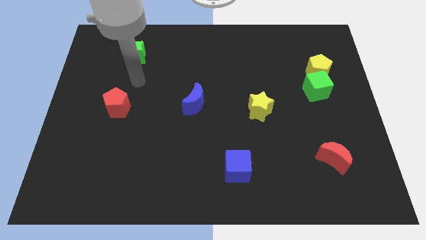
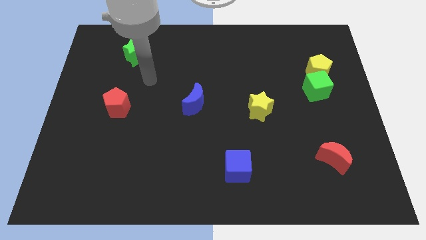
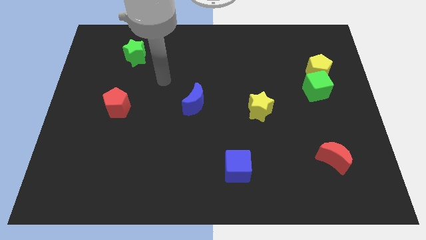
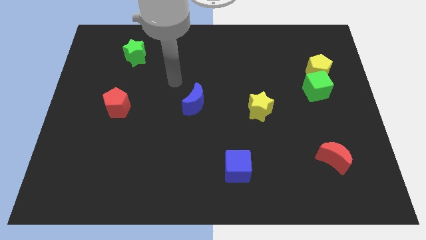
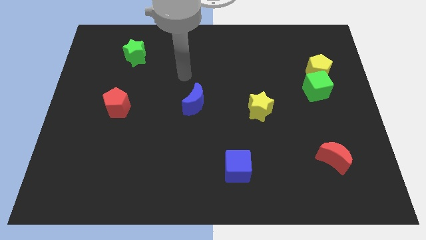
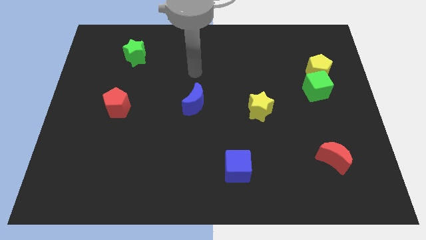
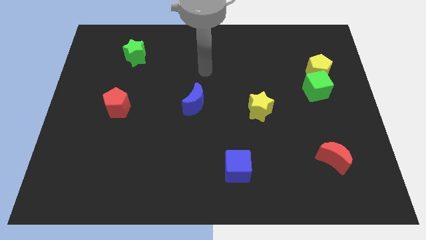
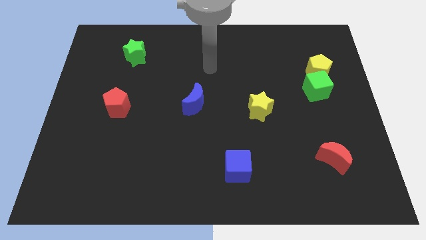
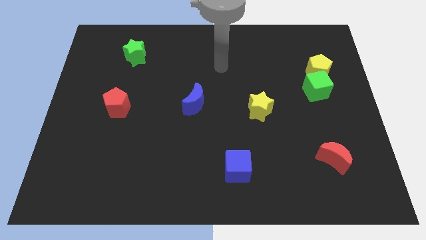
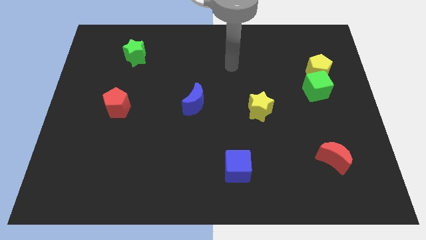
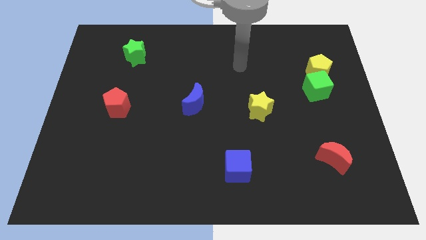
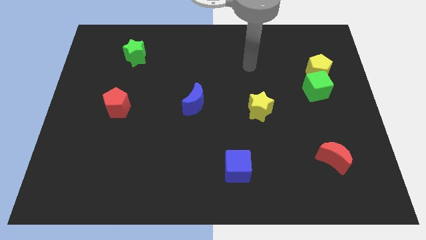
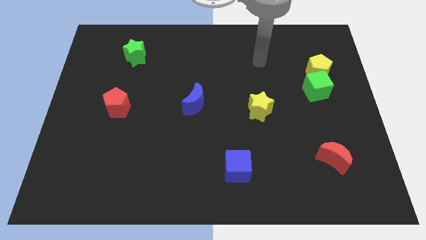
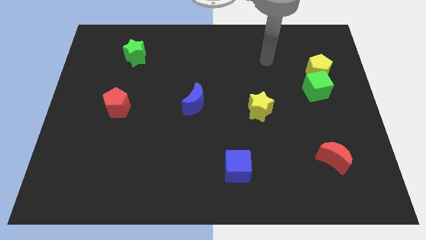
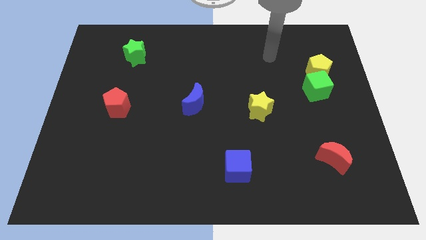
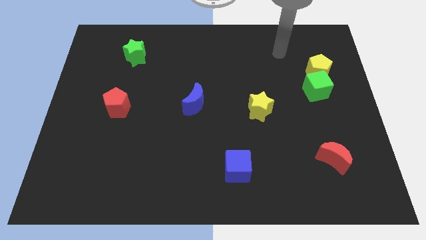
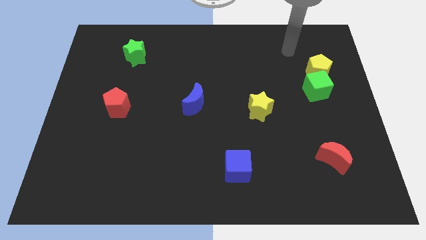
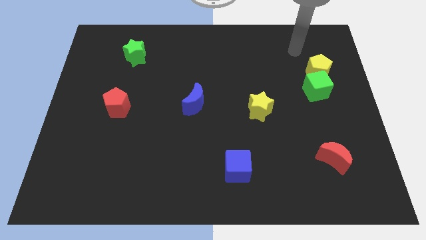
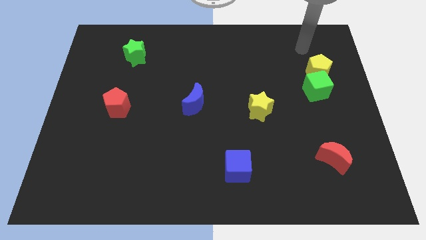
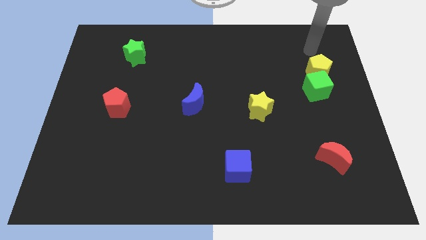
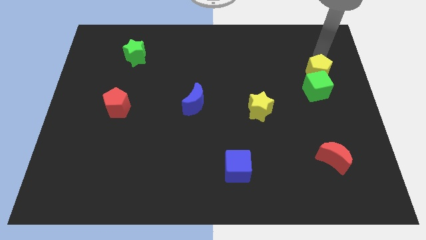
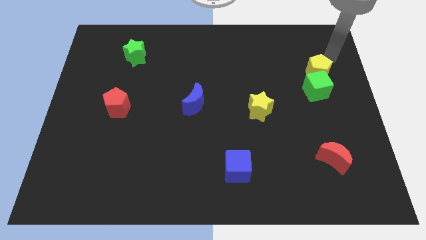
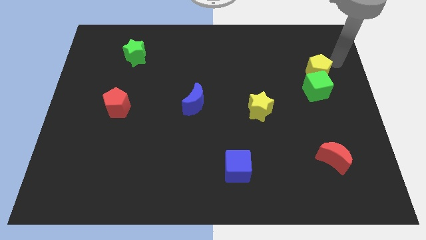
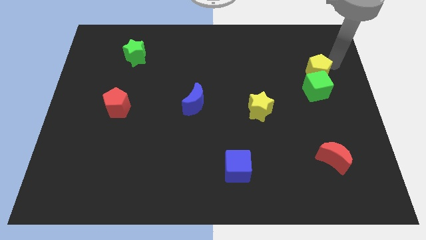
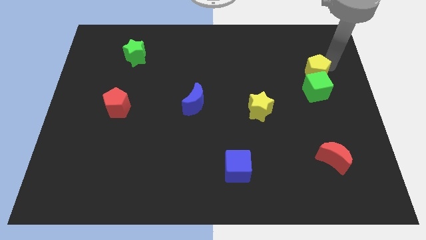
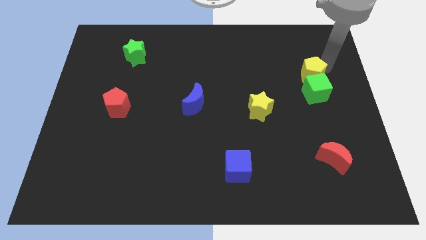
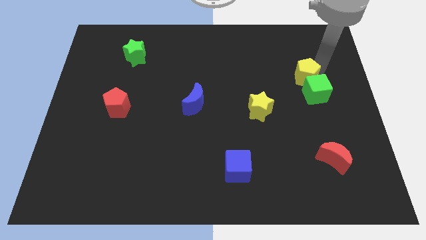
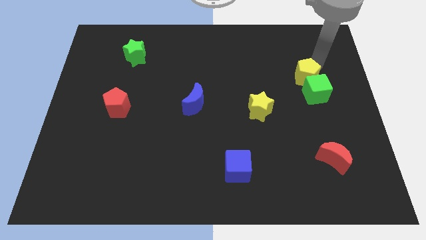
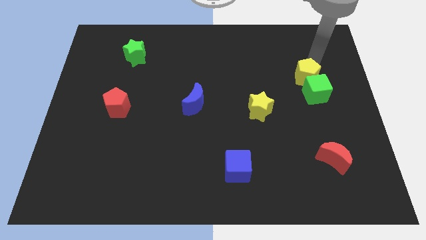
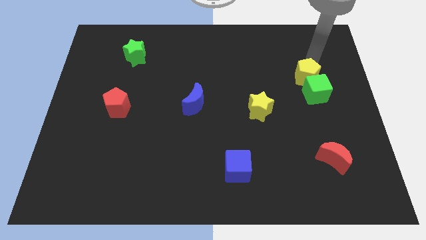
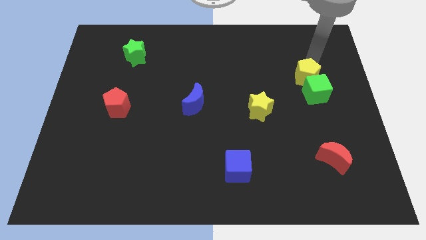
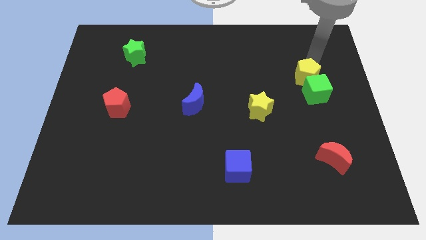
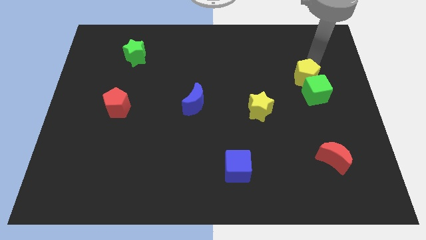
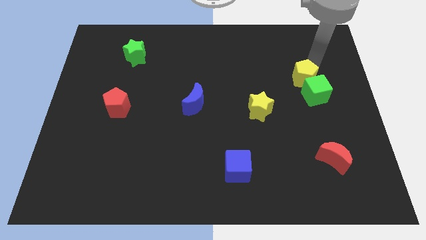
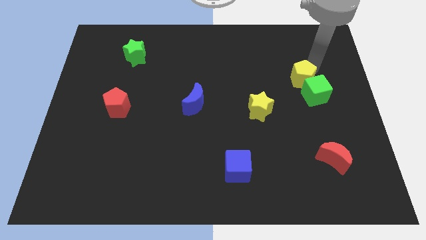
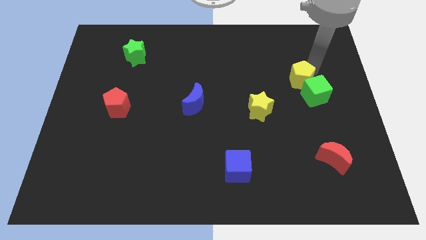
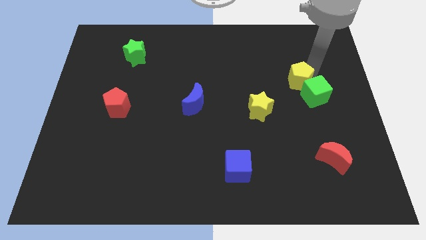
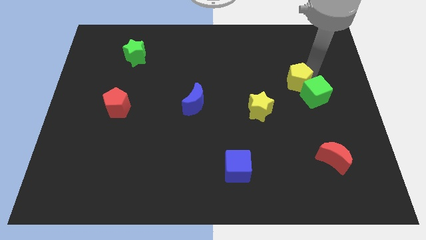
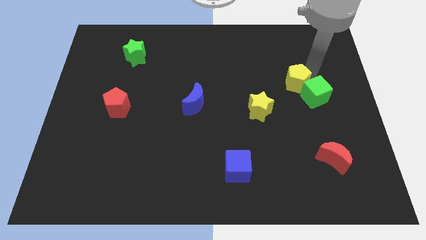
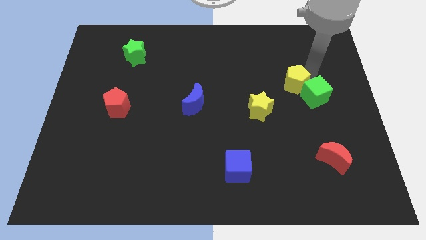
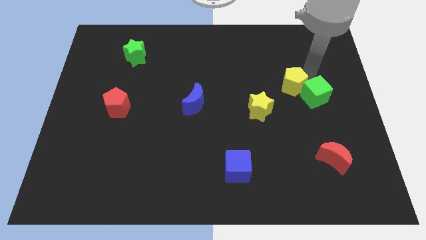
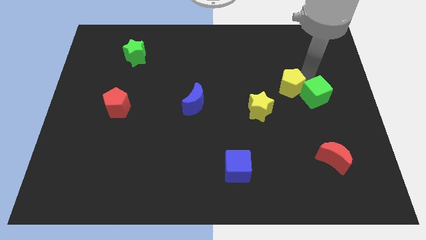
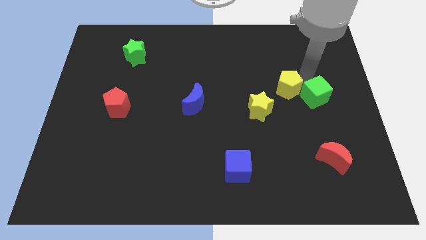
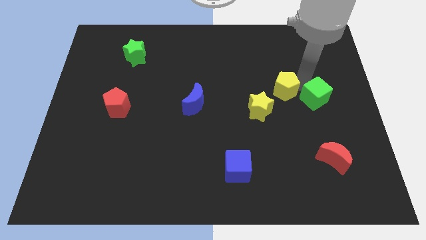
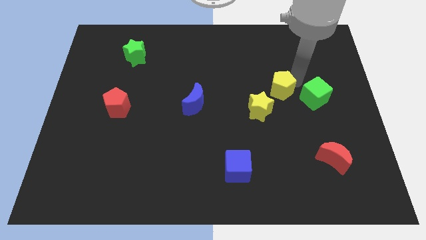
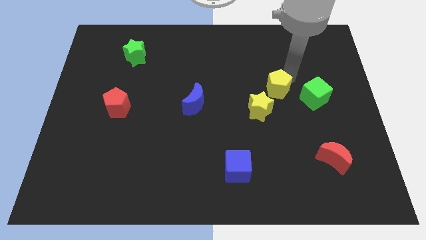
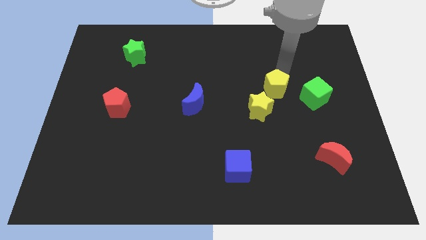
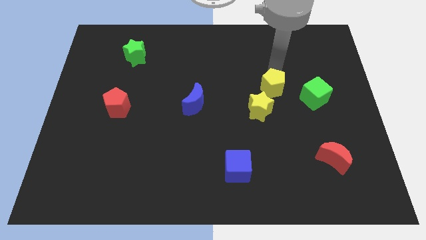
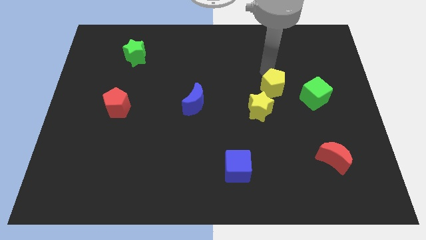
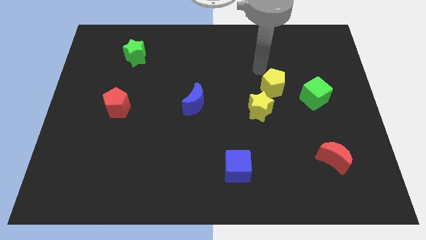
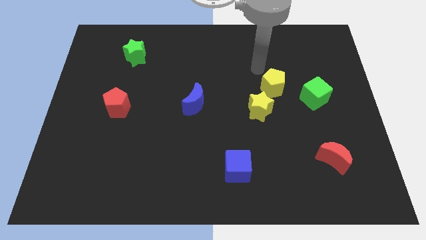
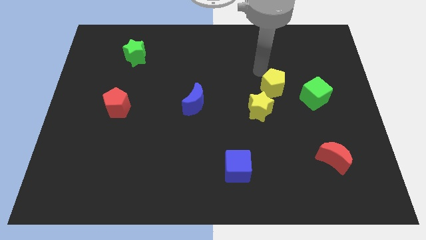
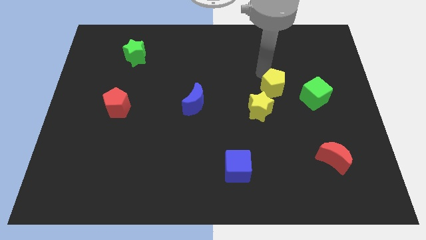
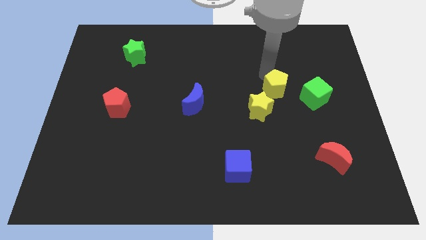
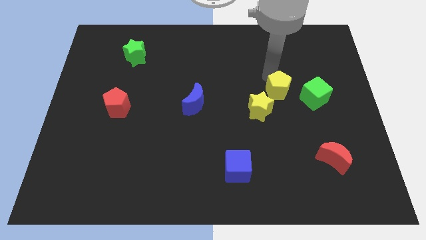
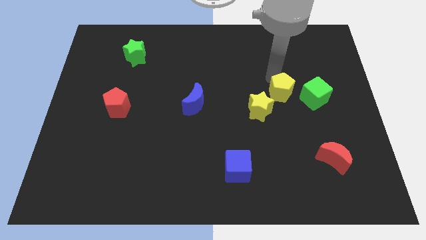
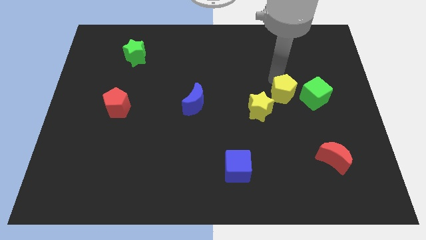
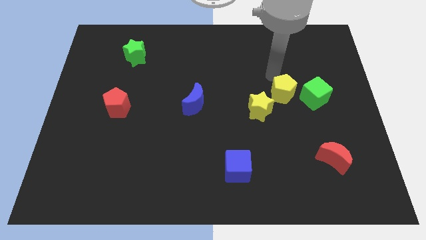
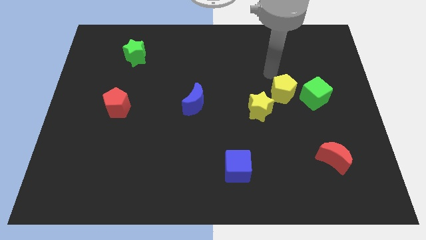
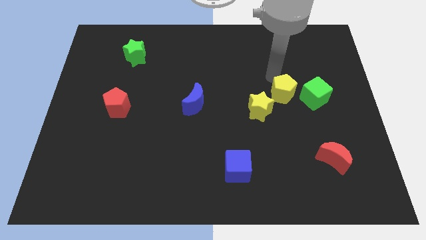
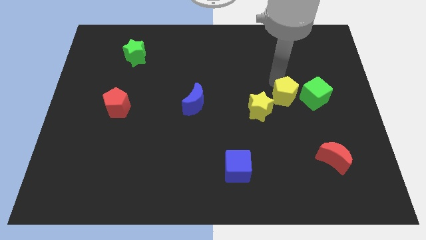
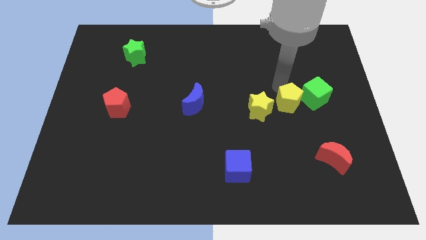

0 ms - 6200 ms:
slide the yellow pentagon to the bottom left of the green cube

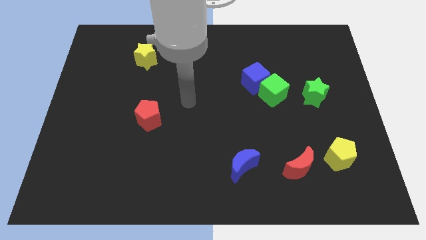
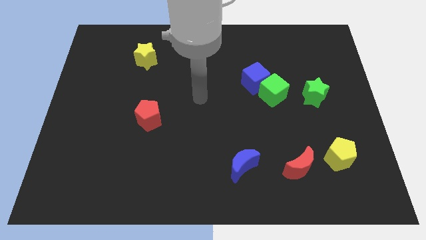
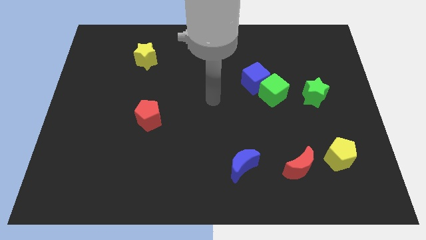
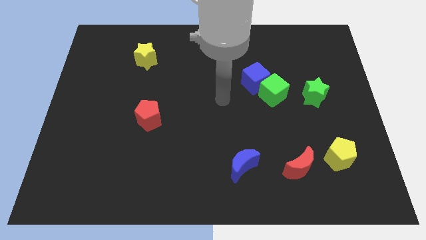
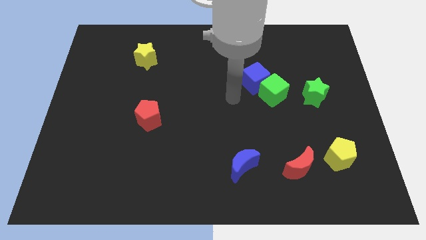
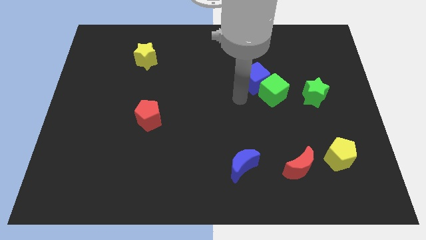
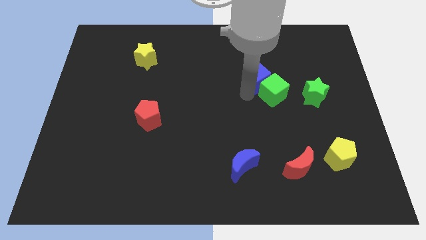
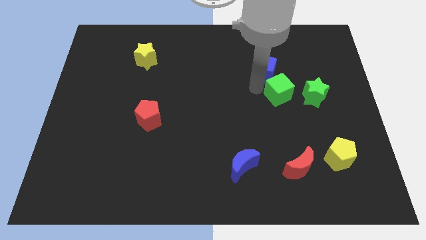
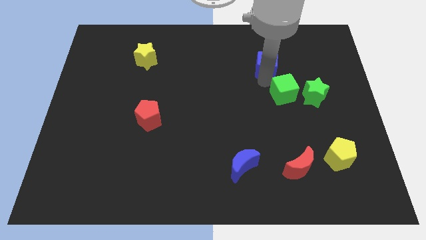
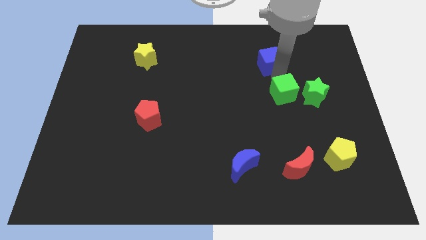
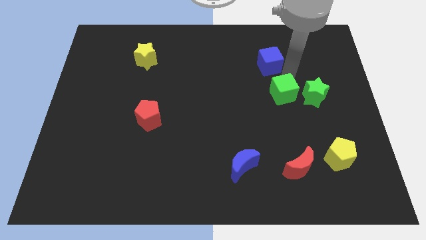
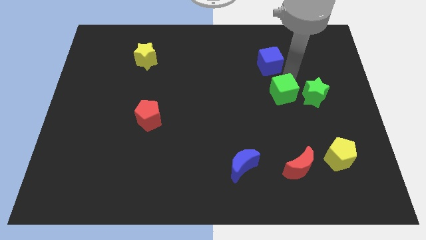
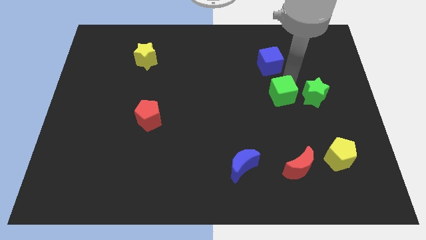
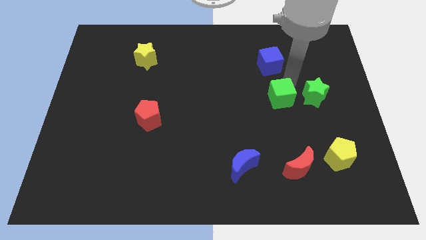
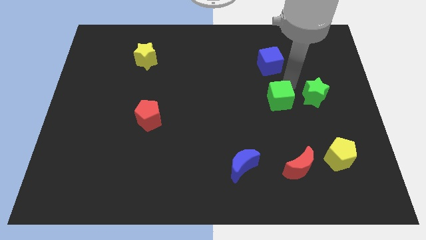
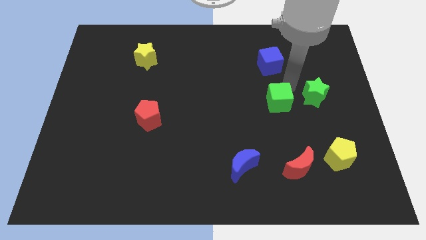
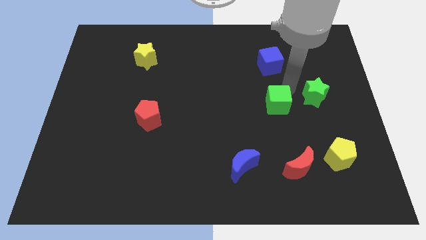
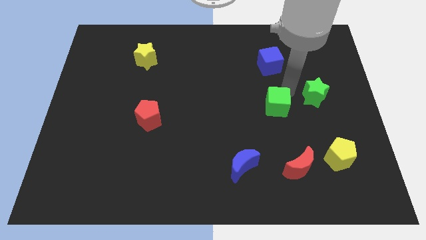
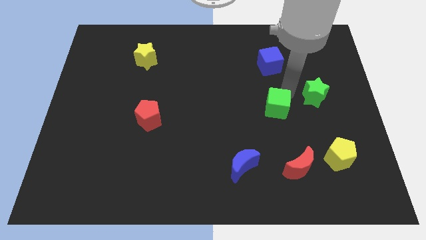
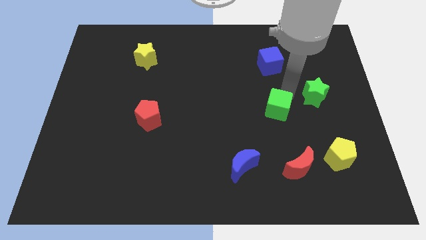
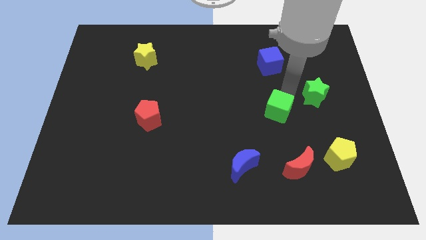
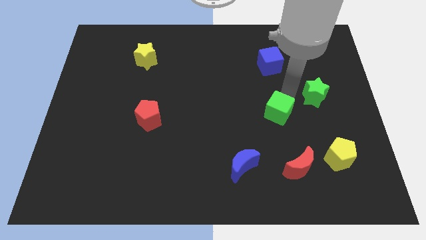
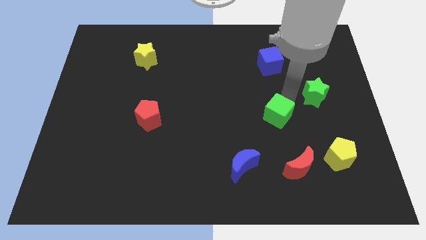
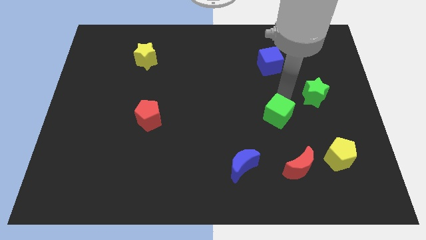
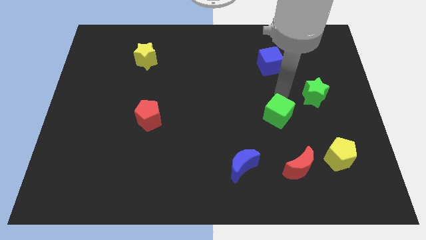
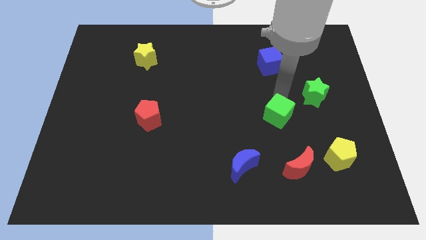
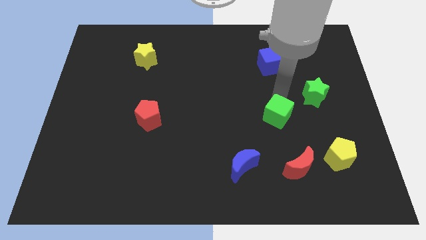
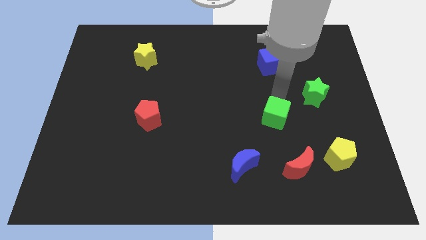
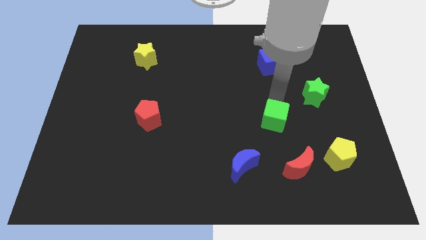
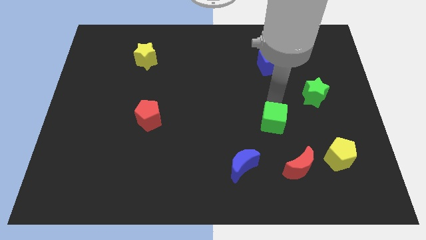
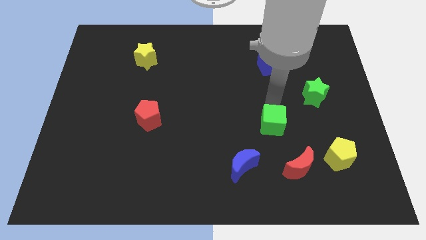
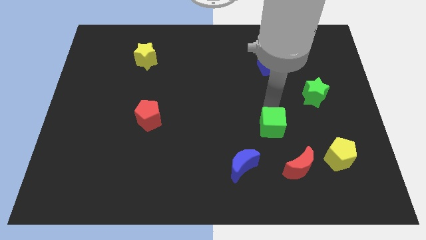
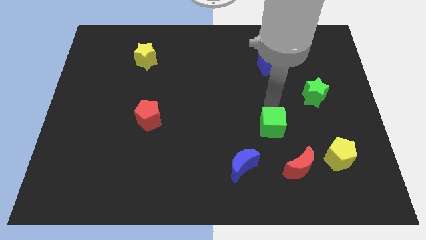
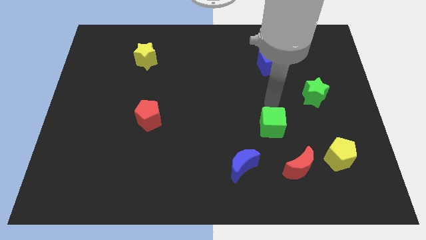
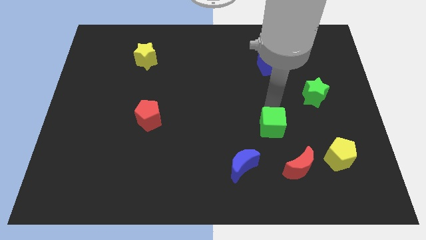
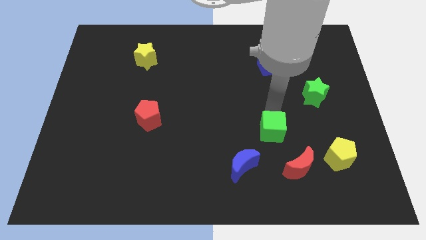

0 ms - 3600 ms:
push the green cube diagonally up and to the left of the red moon
